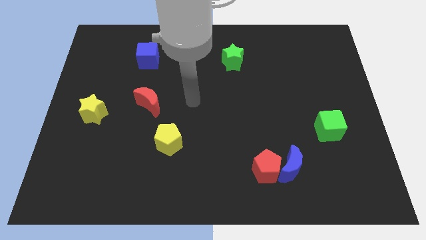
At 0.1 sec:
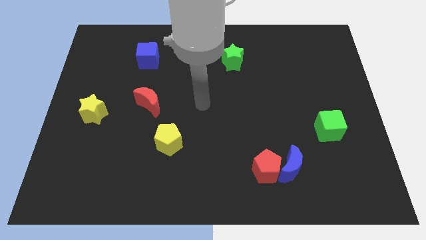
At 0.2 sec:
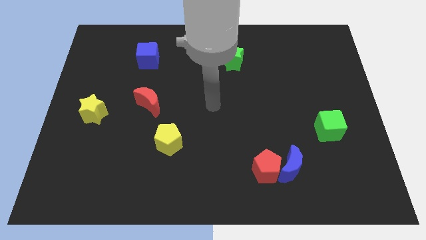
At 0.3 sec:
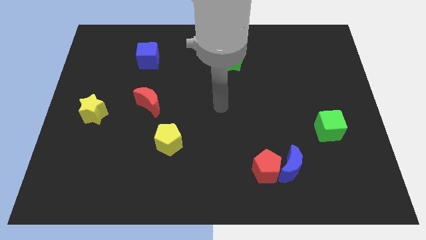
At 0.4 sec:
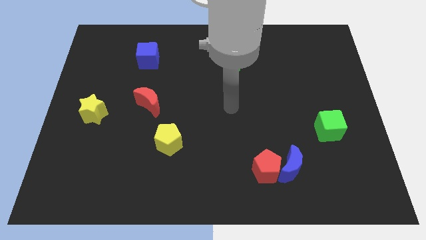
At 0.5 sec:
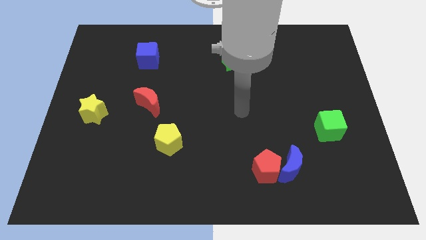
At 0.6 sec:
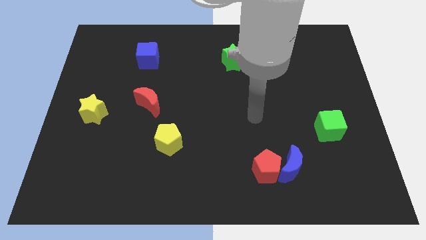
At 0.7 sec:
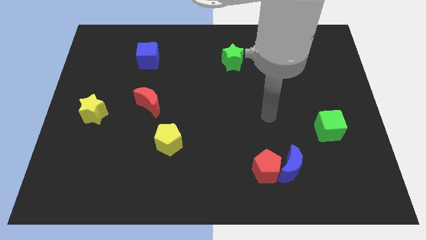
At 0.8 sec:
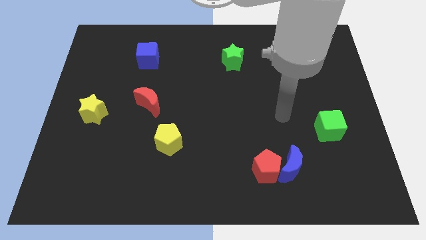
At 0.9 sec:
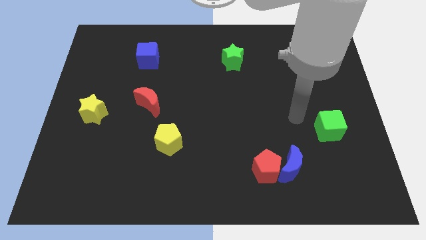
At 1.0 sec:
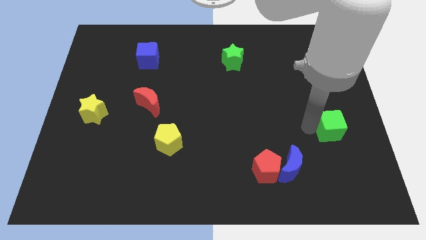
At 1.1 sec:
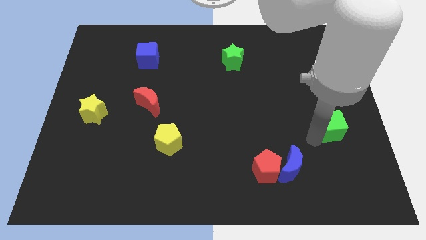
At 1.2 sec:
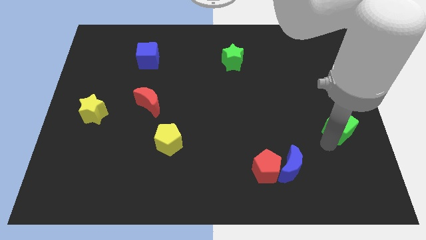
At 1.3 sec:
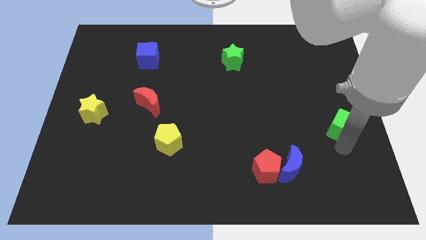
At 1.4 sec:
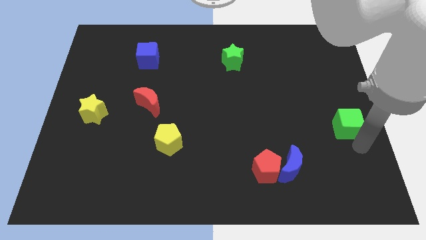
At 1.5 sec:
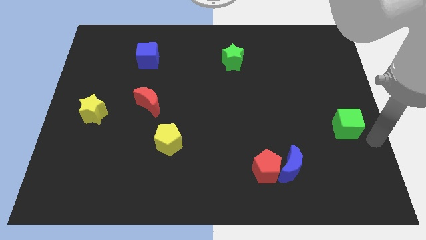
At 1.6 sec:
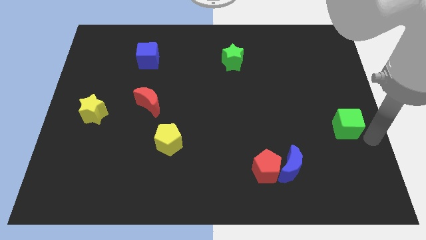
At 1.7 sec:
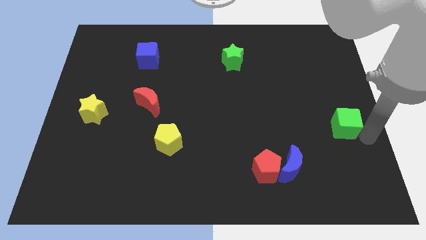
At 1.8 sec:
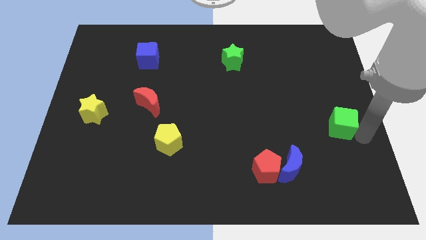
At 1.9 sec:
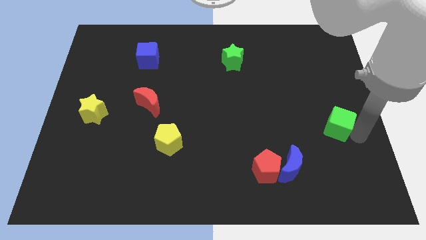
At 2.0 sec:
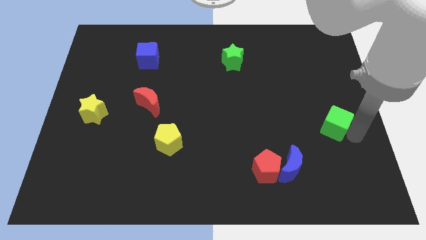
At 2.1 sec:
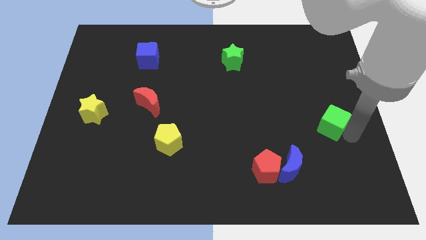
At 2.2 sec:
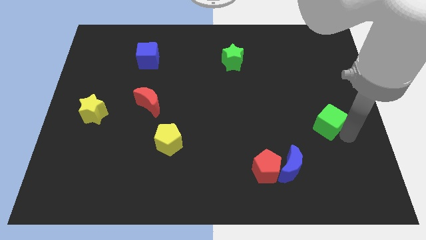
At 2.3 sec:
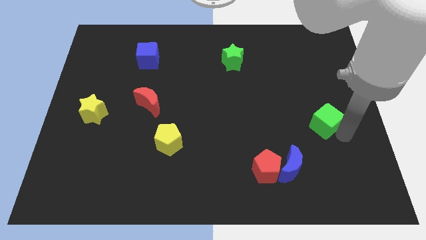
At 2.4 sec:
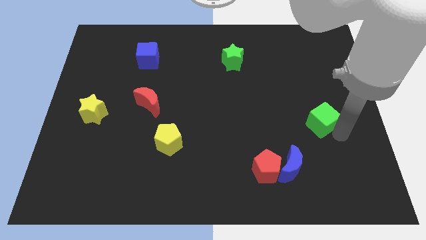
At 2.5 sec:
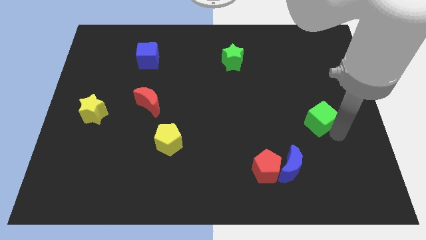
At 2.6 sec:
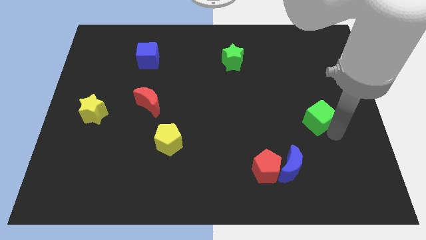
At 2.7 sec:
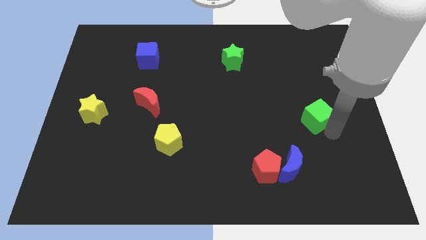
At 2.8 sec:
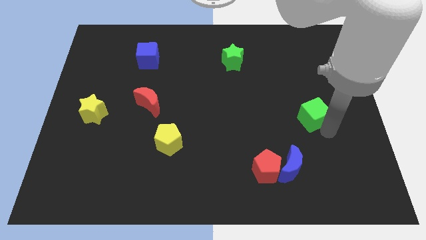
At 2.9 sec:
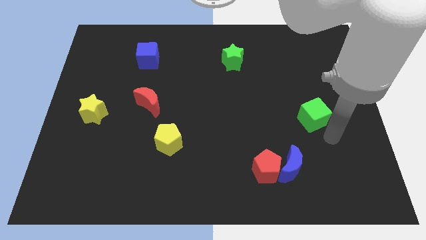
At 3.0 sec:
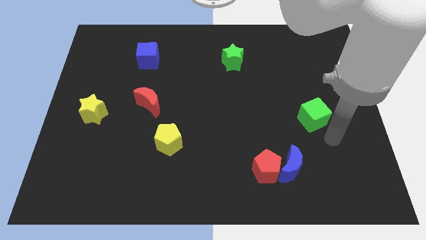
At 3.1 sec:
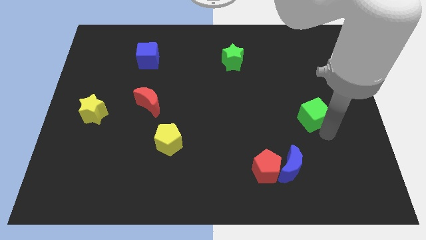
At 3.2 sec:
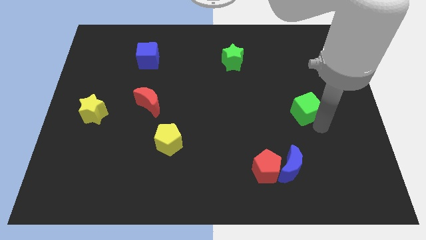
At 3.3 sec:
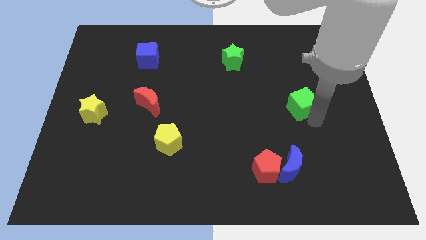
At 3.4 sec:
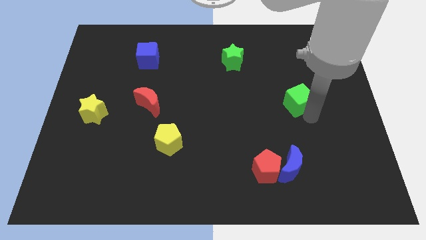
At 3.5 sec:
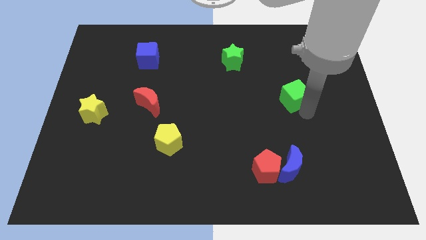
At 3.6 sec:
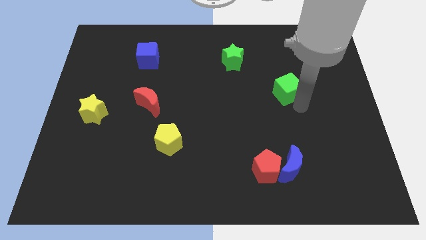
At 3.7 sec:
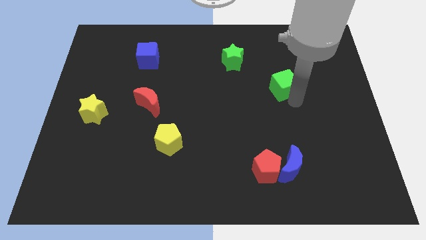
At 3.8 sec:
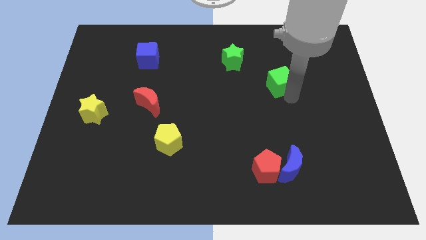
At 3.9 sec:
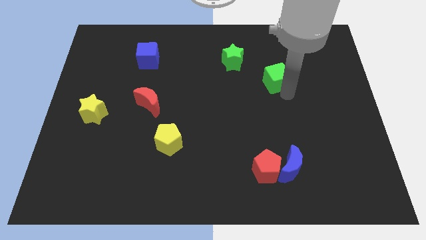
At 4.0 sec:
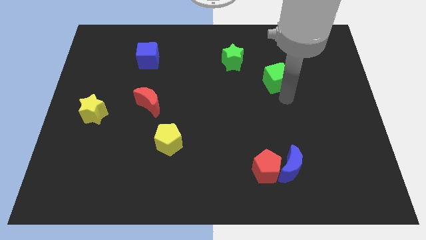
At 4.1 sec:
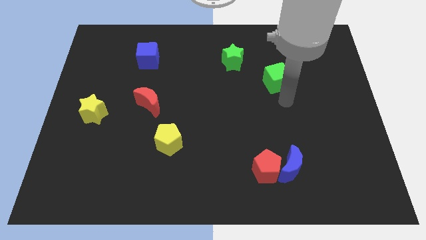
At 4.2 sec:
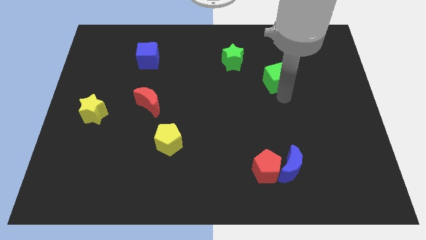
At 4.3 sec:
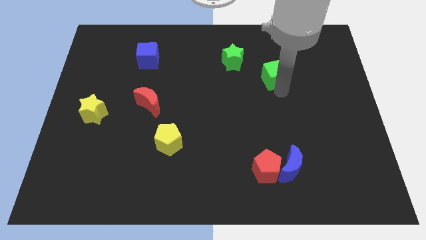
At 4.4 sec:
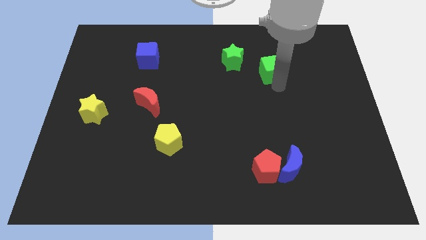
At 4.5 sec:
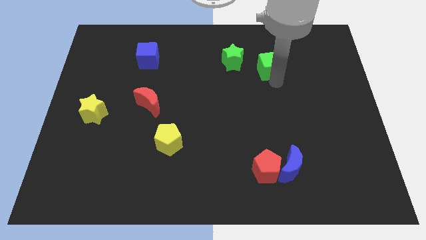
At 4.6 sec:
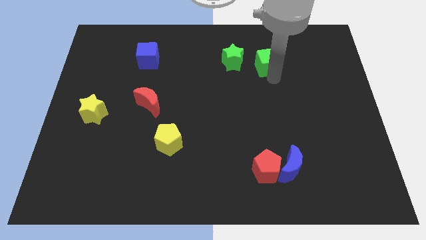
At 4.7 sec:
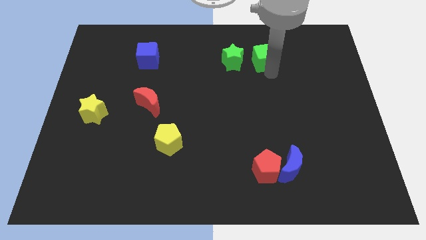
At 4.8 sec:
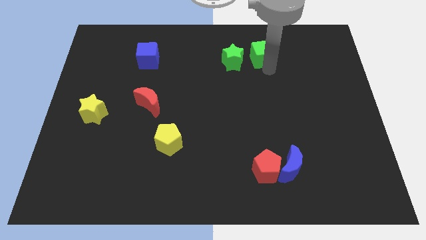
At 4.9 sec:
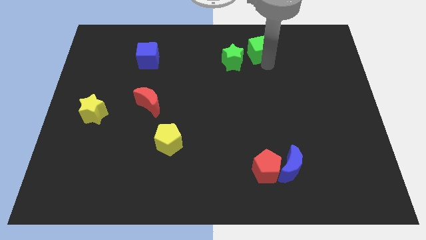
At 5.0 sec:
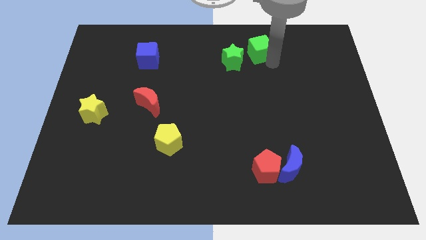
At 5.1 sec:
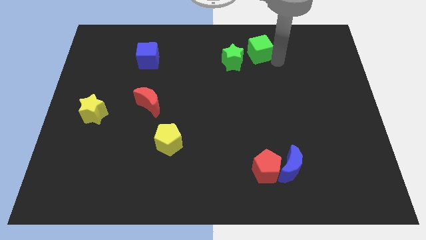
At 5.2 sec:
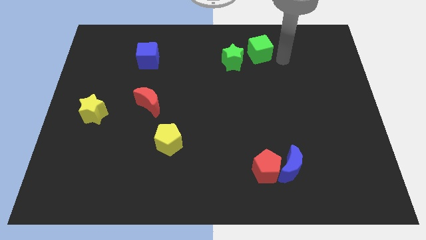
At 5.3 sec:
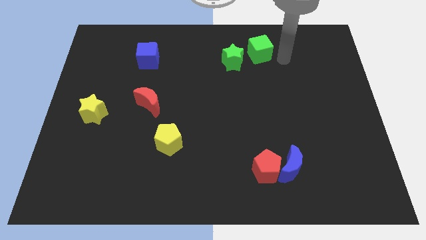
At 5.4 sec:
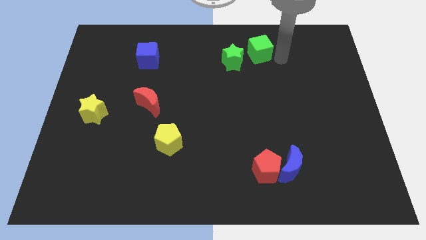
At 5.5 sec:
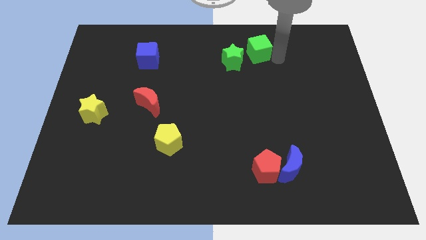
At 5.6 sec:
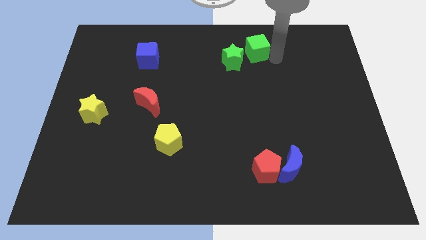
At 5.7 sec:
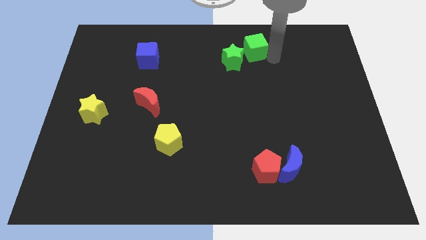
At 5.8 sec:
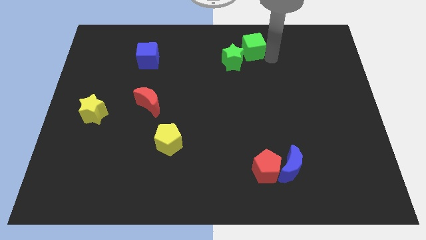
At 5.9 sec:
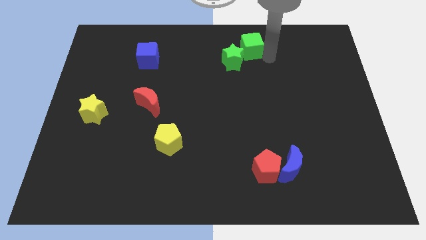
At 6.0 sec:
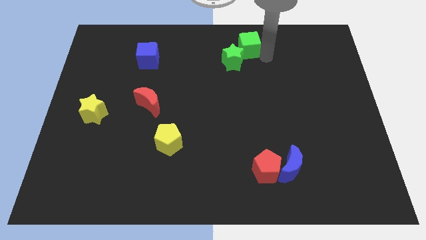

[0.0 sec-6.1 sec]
move the green cube to the top

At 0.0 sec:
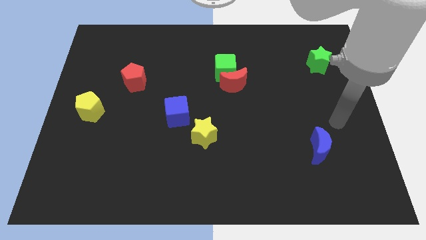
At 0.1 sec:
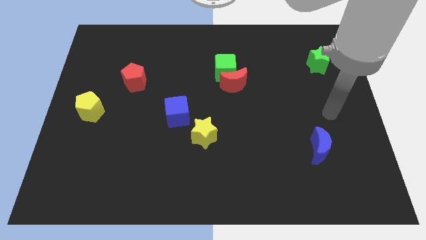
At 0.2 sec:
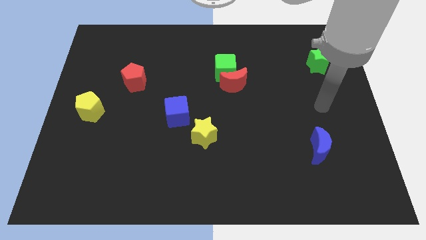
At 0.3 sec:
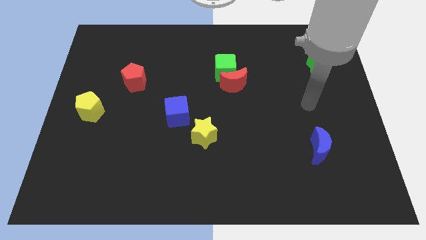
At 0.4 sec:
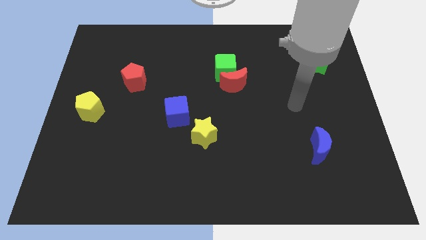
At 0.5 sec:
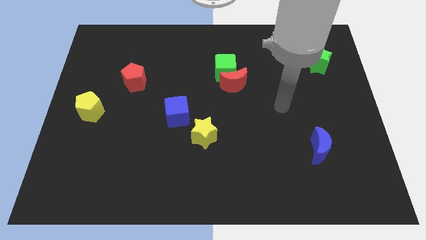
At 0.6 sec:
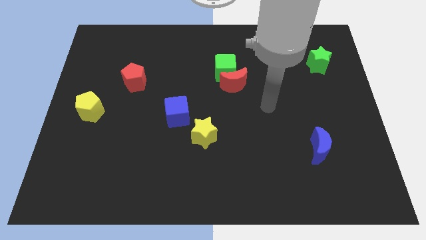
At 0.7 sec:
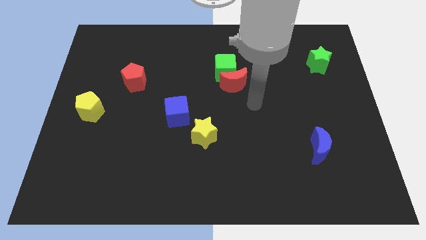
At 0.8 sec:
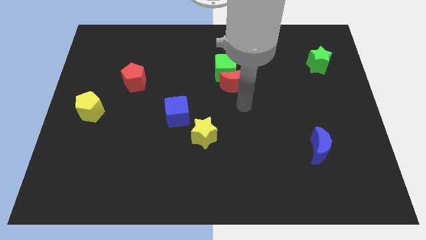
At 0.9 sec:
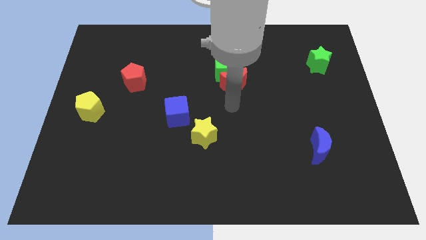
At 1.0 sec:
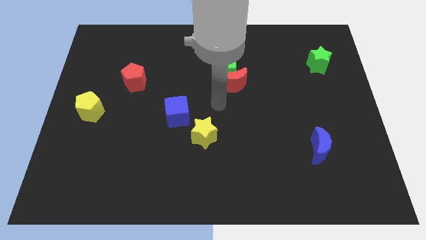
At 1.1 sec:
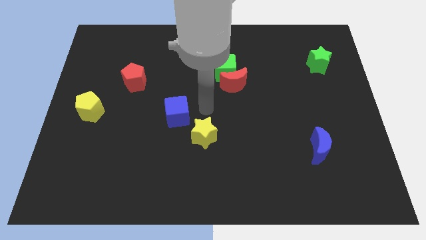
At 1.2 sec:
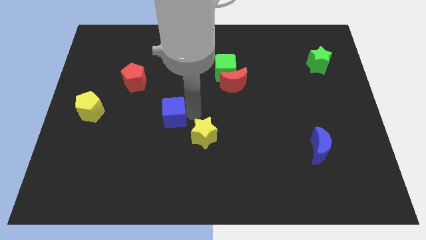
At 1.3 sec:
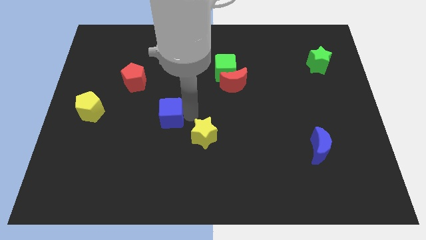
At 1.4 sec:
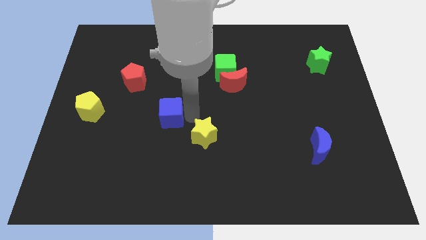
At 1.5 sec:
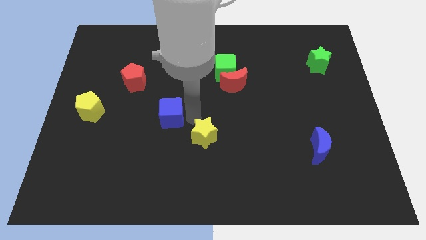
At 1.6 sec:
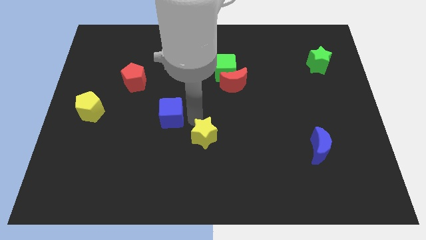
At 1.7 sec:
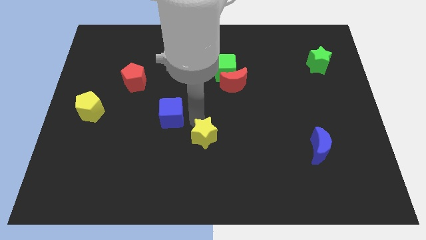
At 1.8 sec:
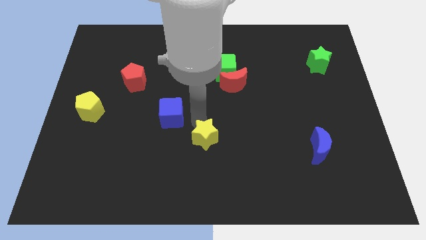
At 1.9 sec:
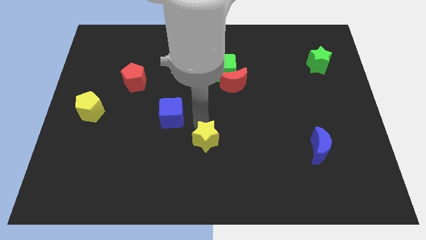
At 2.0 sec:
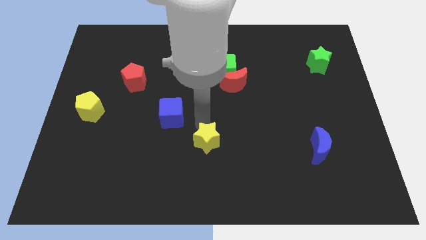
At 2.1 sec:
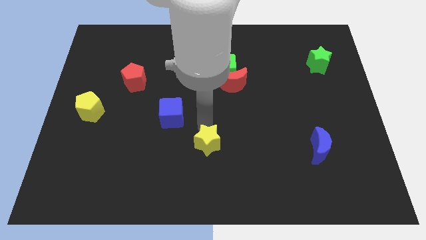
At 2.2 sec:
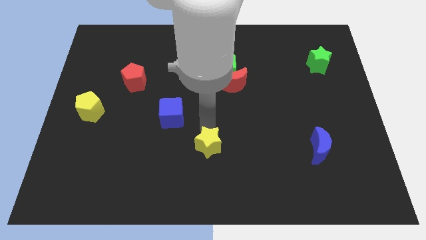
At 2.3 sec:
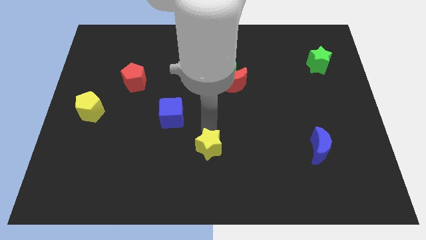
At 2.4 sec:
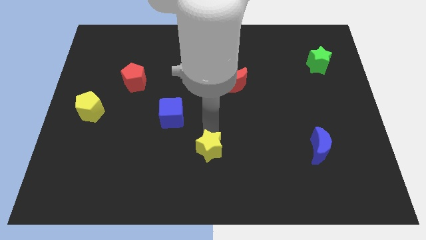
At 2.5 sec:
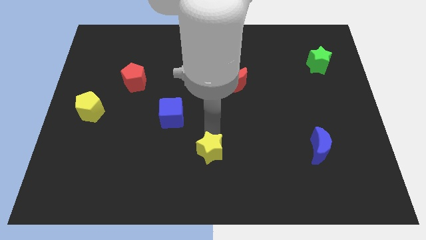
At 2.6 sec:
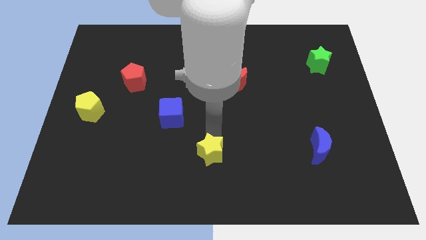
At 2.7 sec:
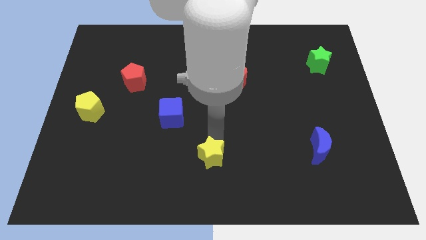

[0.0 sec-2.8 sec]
put the yellow star to the bottom
